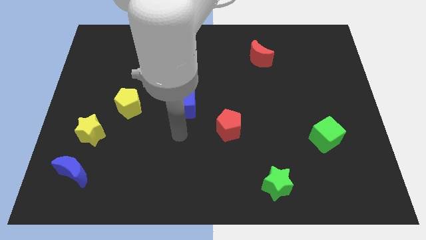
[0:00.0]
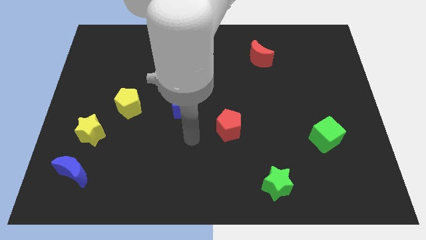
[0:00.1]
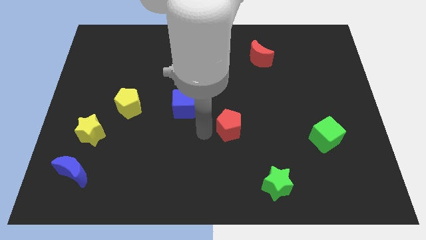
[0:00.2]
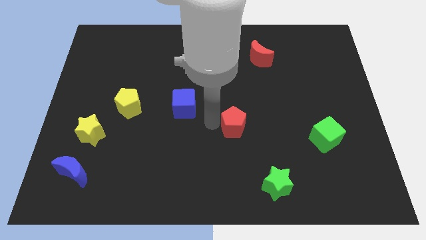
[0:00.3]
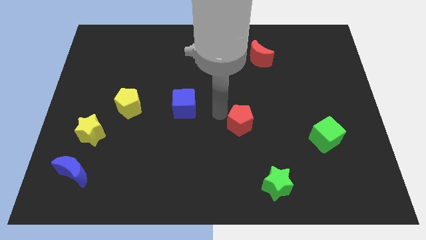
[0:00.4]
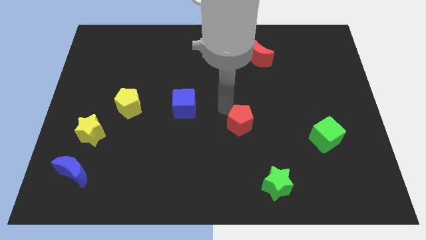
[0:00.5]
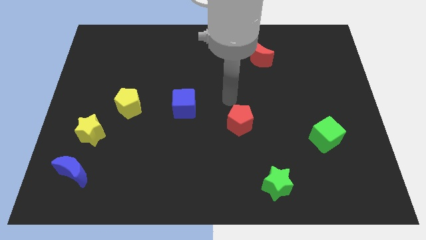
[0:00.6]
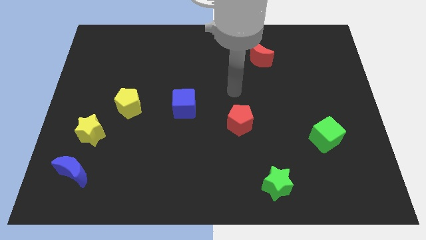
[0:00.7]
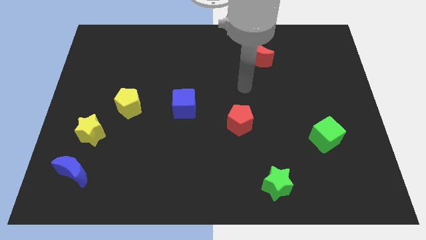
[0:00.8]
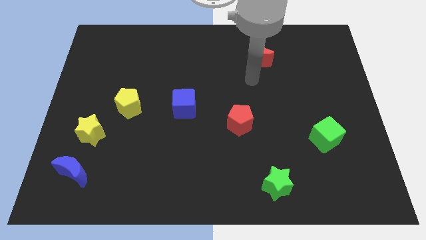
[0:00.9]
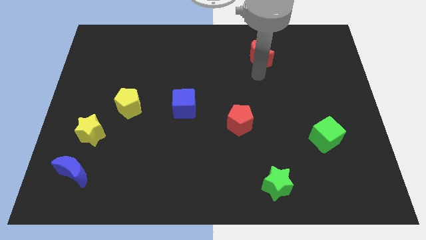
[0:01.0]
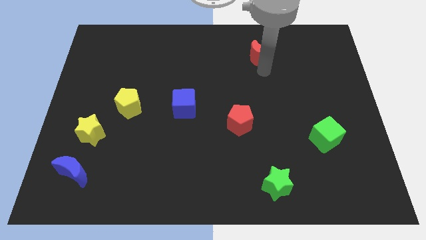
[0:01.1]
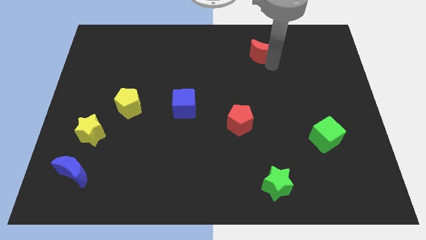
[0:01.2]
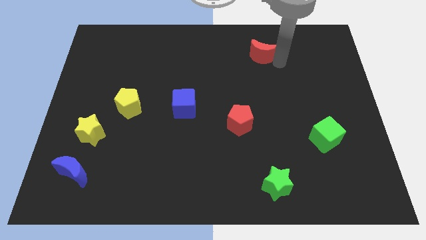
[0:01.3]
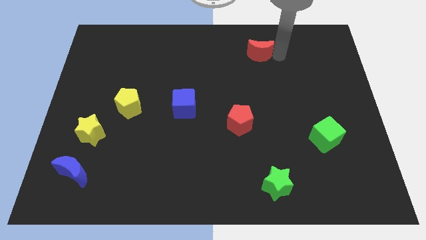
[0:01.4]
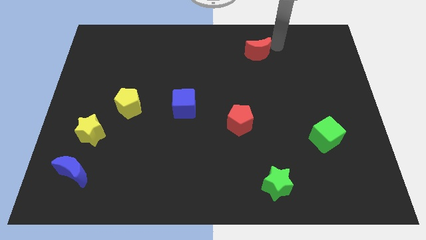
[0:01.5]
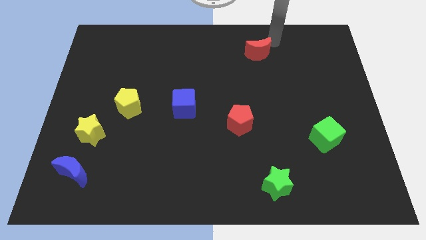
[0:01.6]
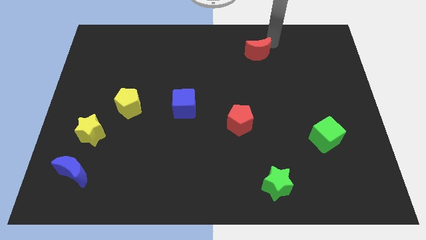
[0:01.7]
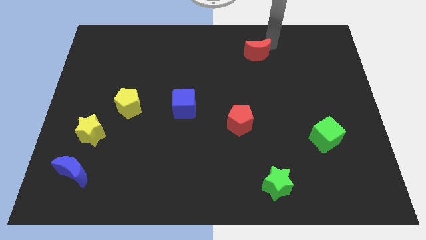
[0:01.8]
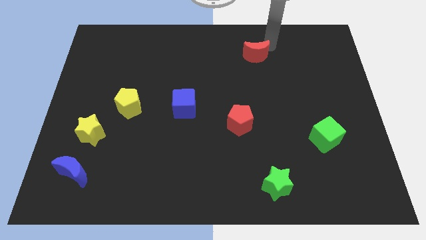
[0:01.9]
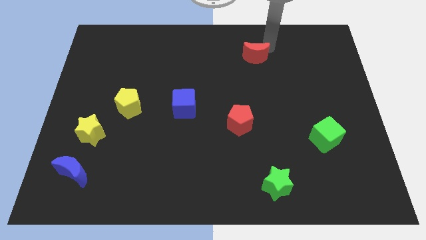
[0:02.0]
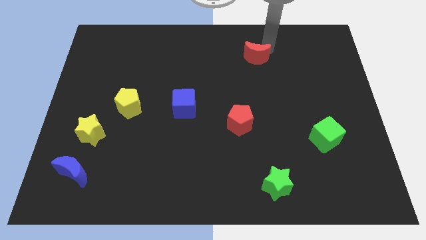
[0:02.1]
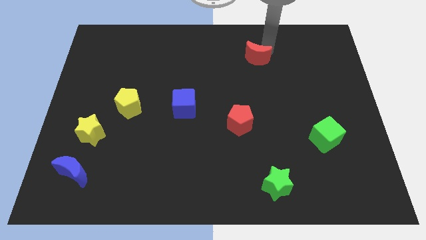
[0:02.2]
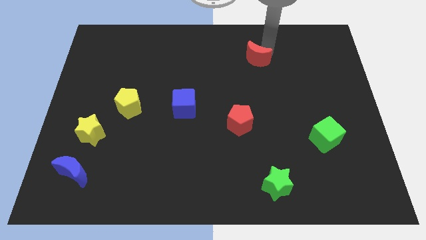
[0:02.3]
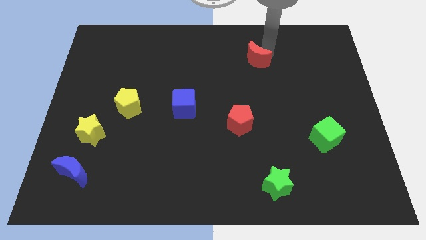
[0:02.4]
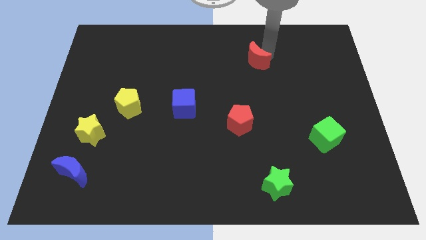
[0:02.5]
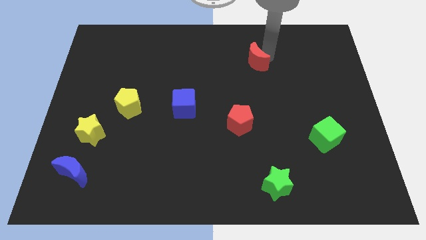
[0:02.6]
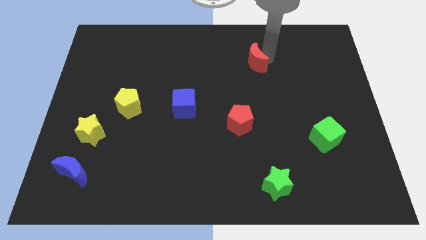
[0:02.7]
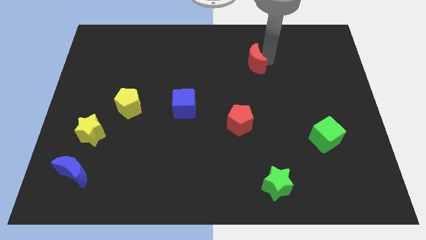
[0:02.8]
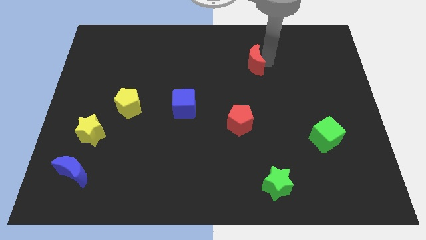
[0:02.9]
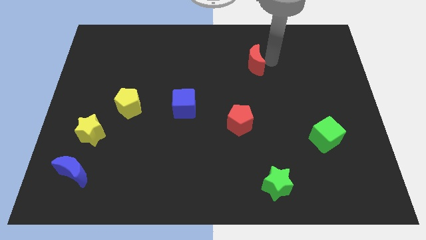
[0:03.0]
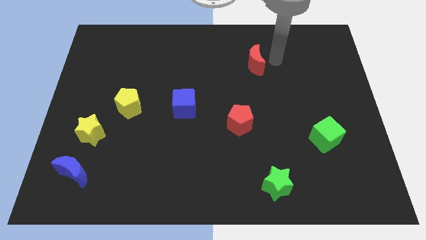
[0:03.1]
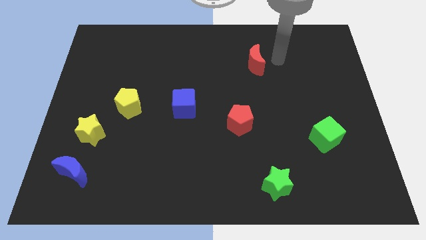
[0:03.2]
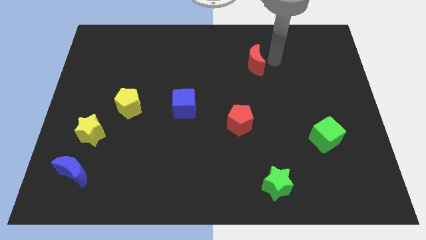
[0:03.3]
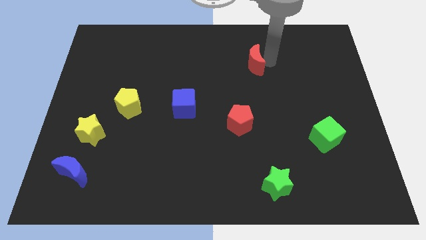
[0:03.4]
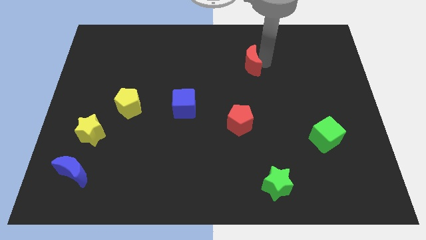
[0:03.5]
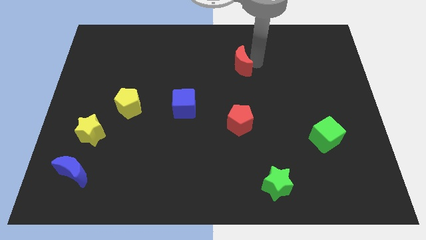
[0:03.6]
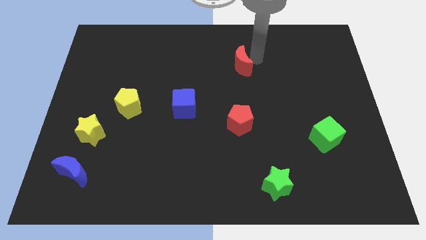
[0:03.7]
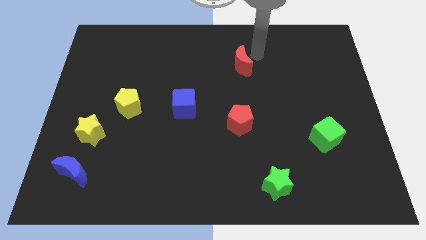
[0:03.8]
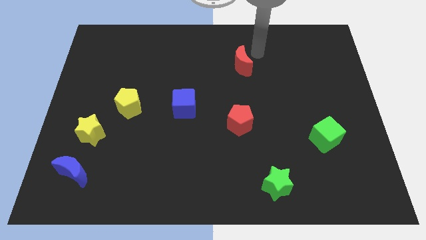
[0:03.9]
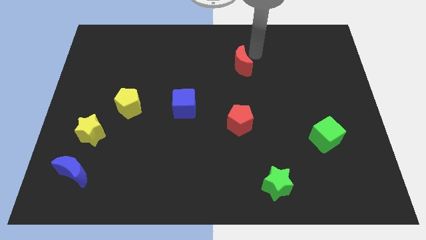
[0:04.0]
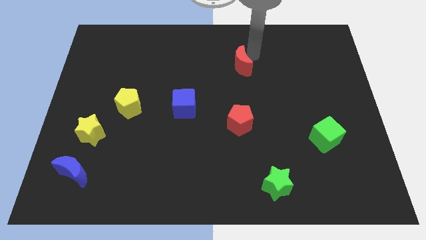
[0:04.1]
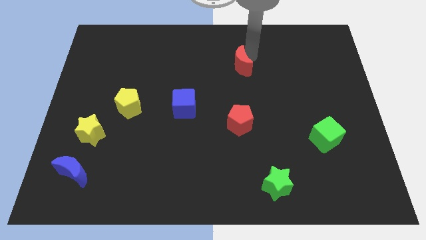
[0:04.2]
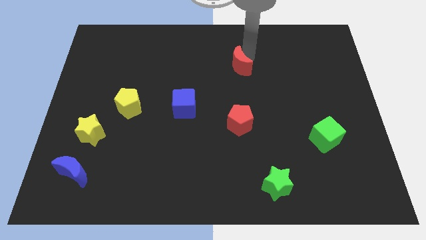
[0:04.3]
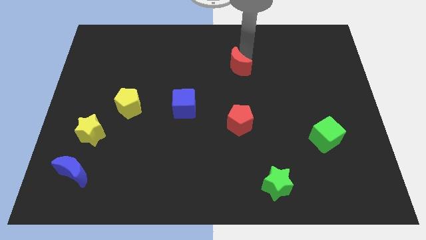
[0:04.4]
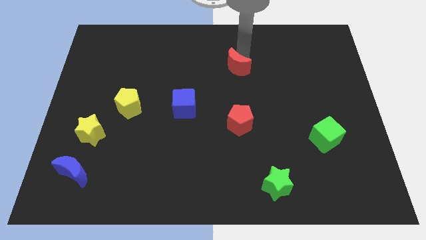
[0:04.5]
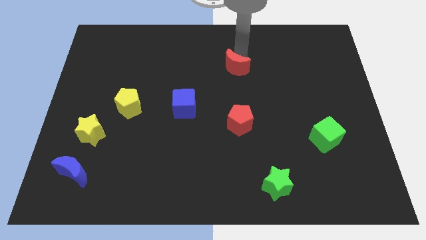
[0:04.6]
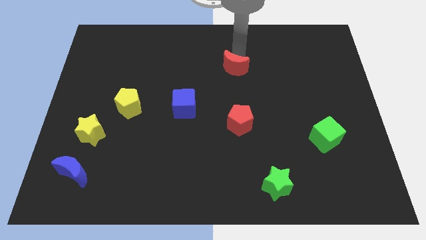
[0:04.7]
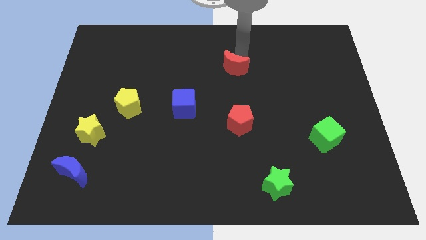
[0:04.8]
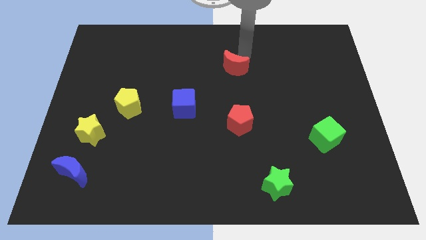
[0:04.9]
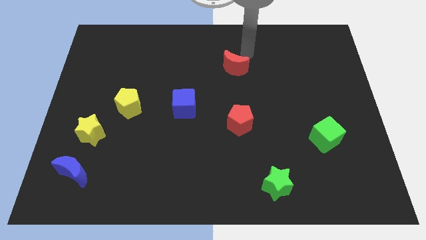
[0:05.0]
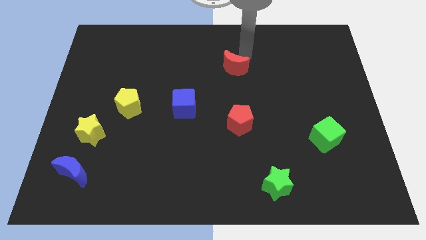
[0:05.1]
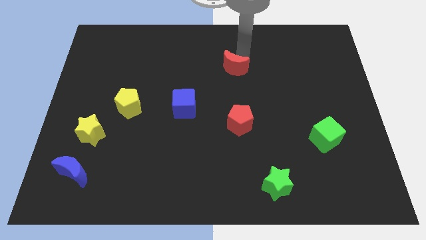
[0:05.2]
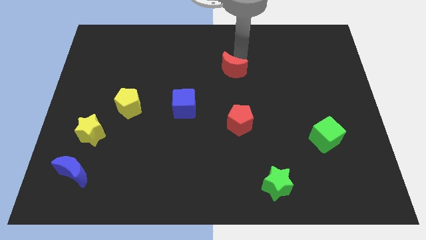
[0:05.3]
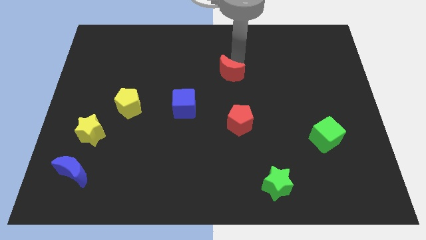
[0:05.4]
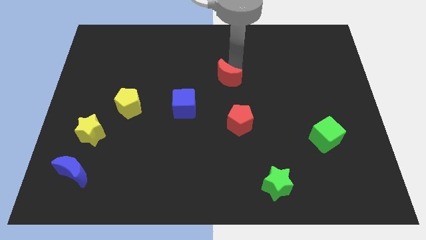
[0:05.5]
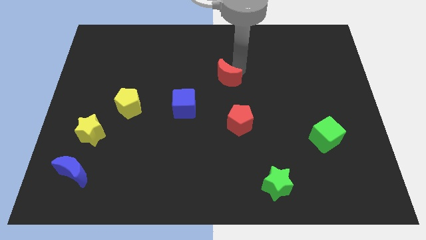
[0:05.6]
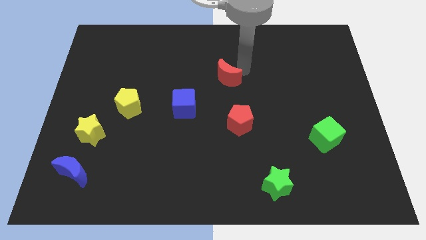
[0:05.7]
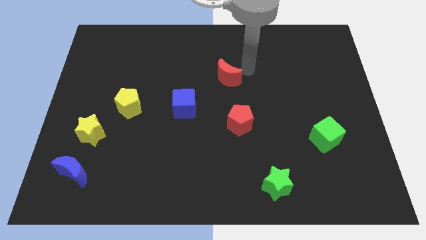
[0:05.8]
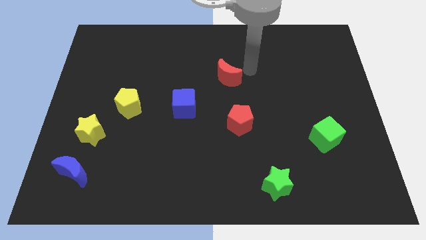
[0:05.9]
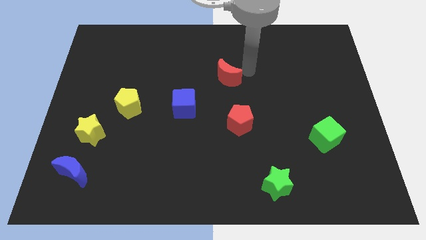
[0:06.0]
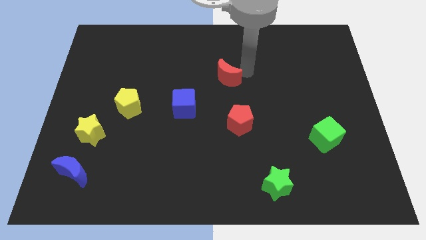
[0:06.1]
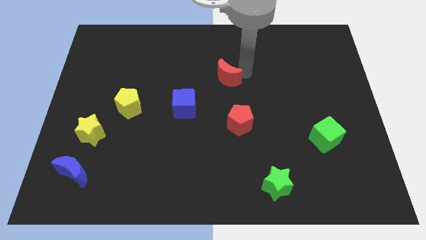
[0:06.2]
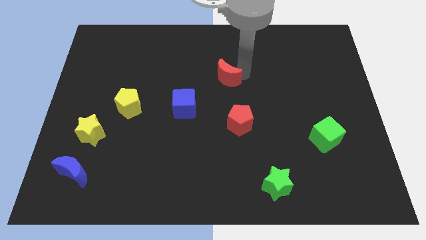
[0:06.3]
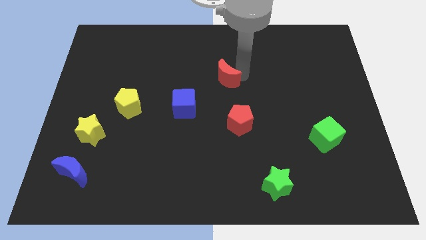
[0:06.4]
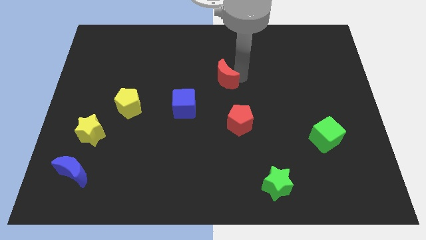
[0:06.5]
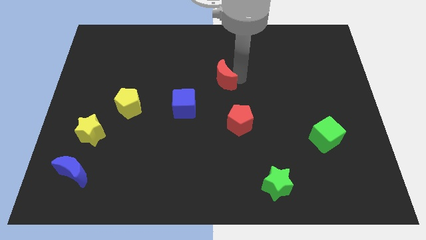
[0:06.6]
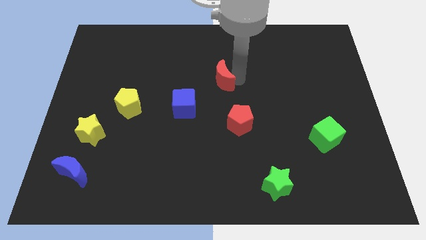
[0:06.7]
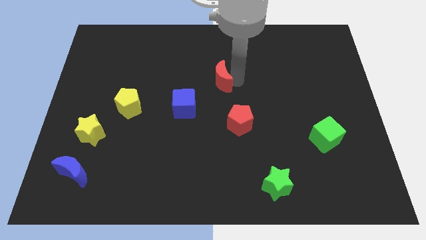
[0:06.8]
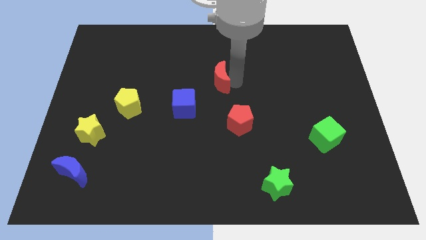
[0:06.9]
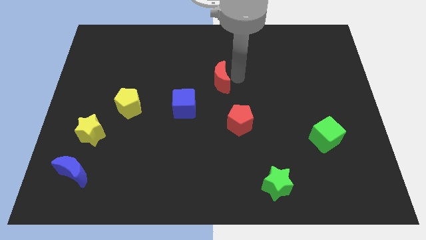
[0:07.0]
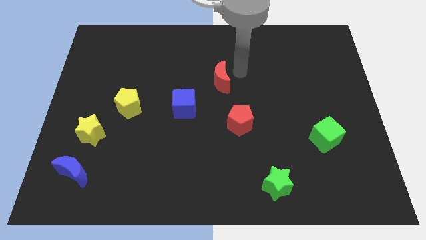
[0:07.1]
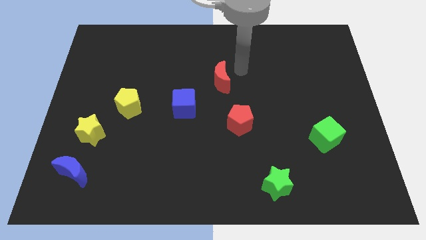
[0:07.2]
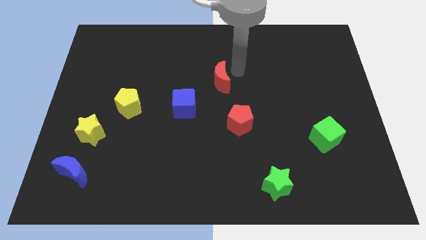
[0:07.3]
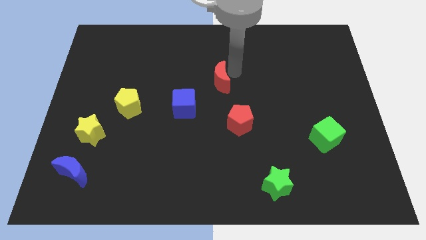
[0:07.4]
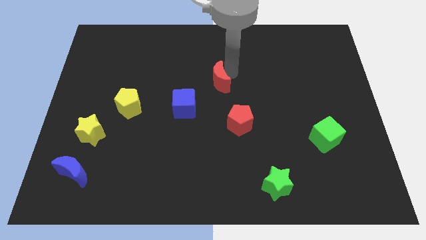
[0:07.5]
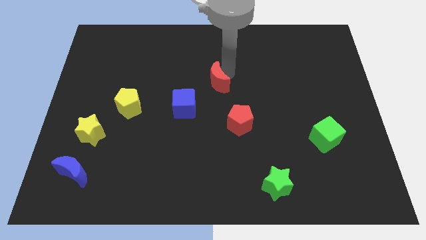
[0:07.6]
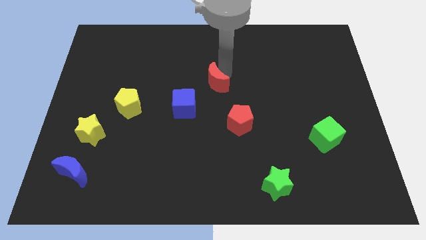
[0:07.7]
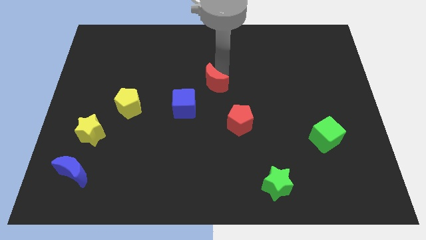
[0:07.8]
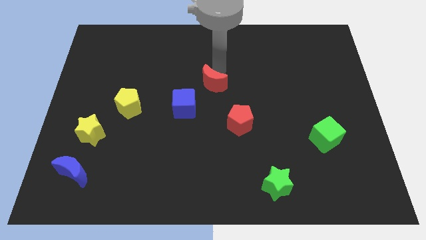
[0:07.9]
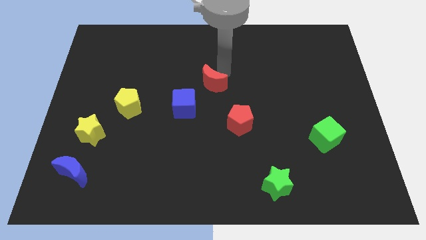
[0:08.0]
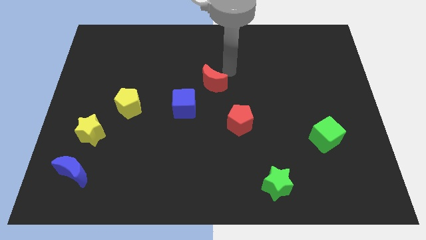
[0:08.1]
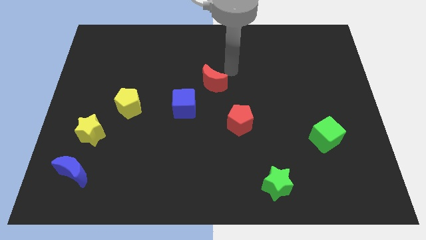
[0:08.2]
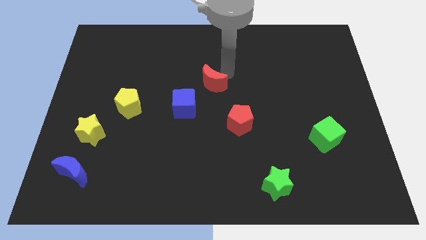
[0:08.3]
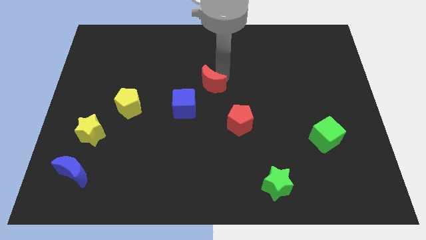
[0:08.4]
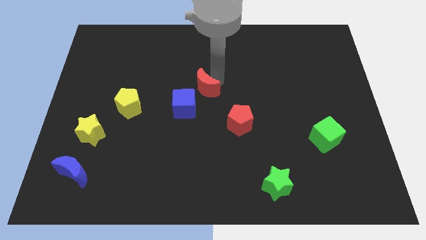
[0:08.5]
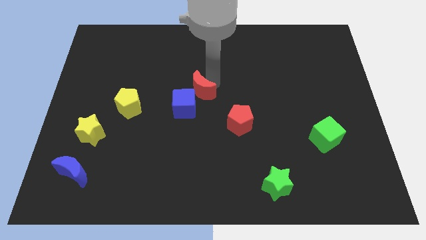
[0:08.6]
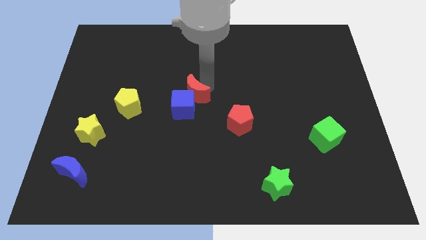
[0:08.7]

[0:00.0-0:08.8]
push the red moon to the blue cube
